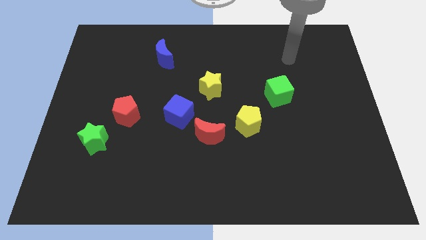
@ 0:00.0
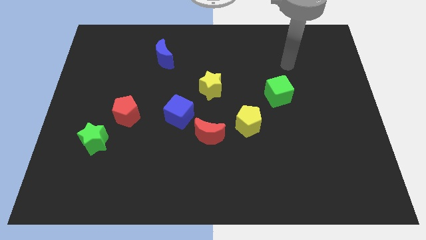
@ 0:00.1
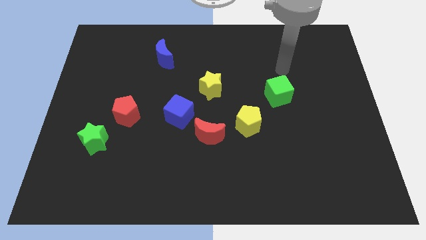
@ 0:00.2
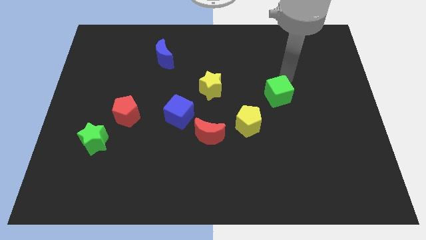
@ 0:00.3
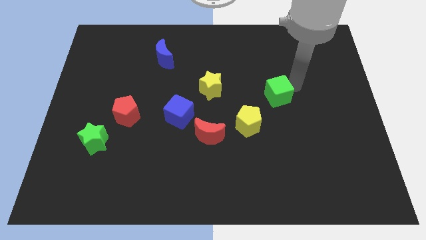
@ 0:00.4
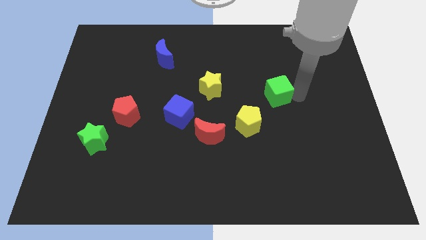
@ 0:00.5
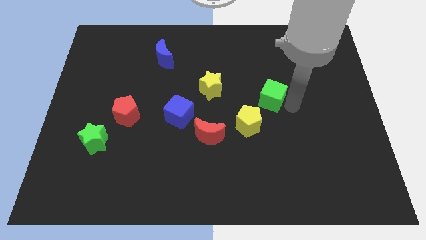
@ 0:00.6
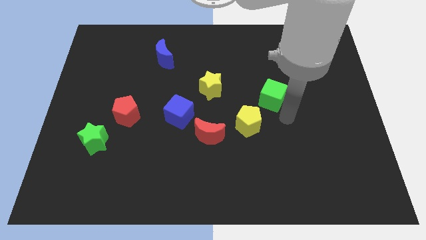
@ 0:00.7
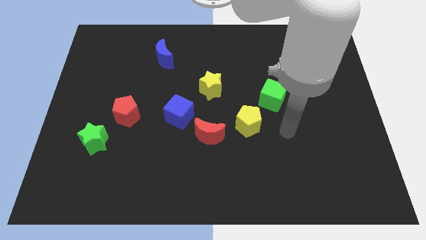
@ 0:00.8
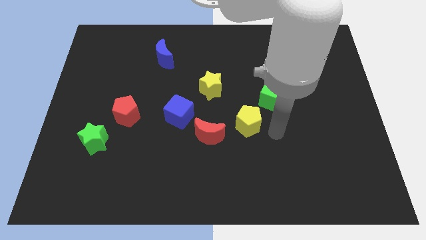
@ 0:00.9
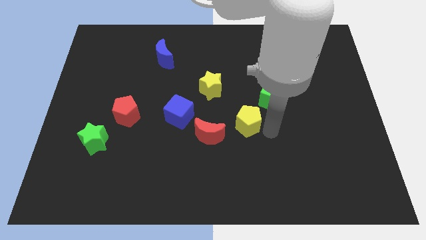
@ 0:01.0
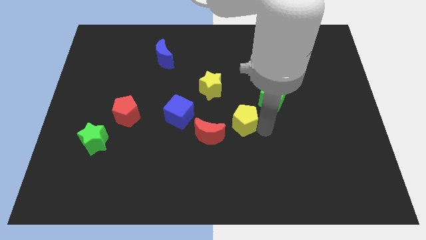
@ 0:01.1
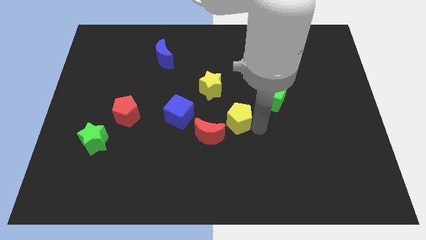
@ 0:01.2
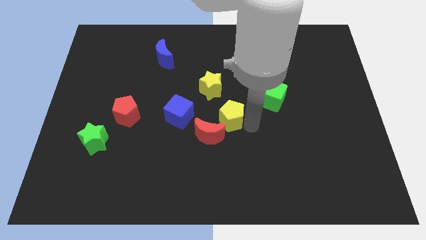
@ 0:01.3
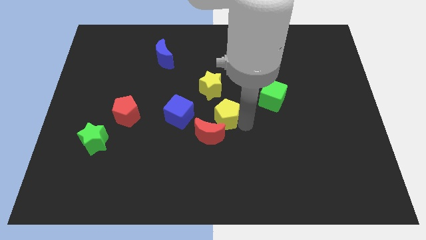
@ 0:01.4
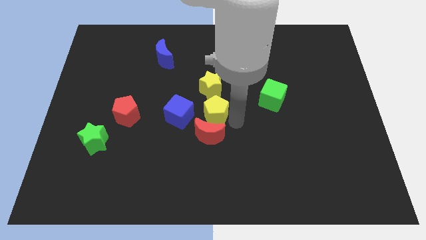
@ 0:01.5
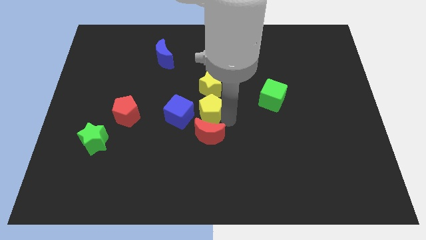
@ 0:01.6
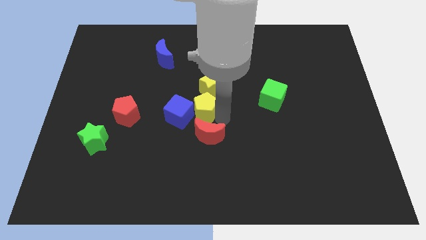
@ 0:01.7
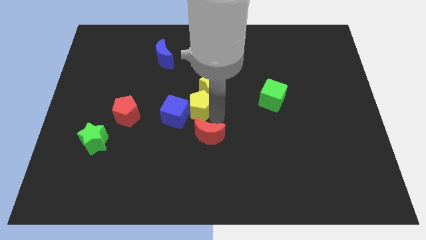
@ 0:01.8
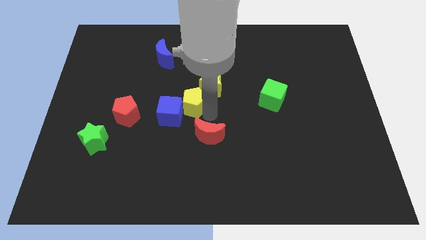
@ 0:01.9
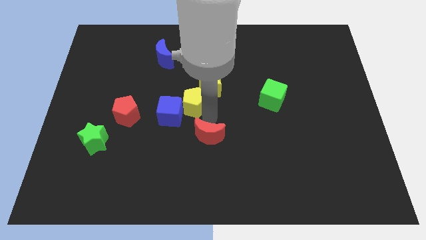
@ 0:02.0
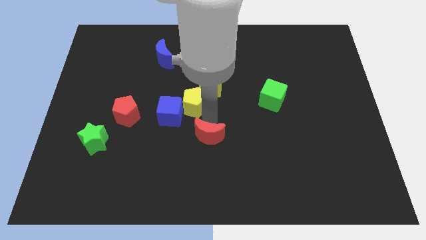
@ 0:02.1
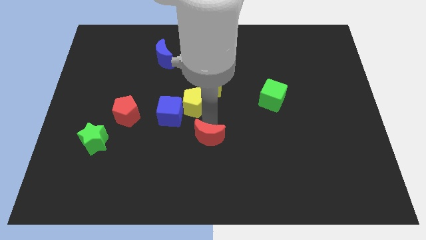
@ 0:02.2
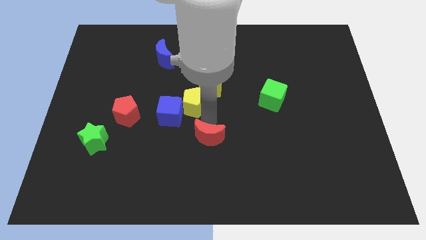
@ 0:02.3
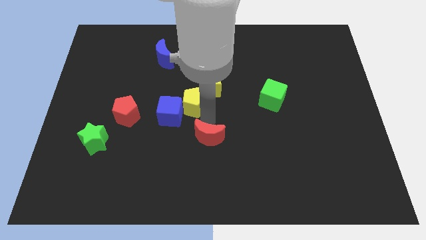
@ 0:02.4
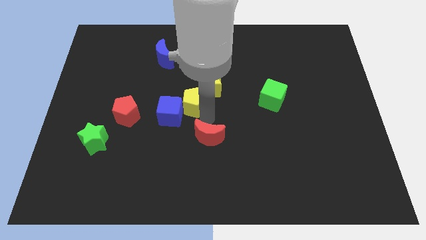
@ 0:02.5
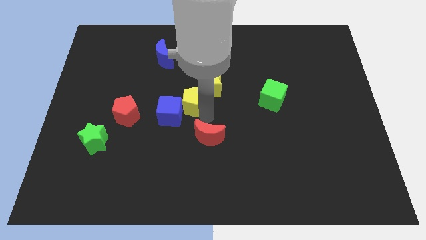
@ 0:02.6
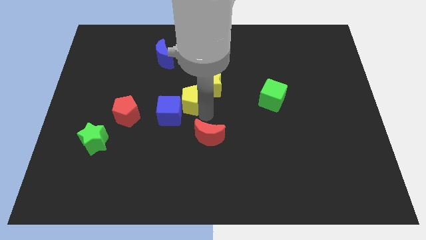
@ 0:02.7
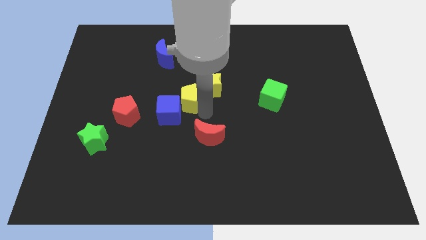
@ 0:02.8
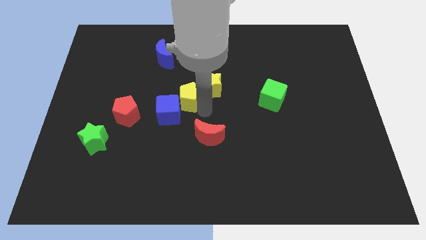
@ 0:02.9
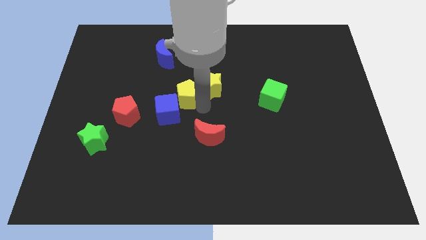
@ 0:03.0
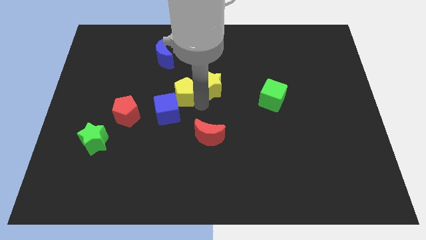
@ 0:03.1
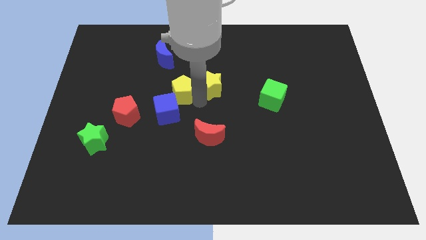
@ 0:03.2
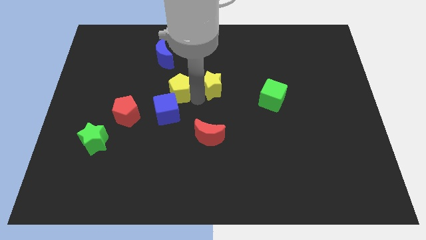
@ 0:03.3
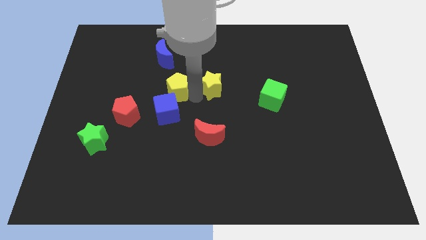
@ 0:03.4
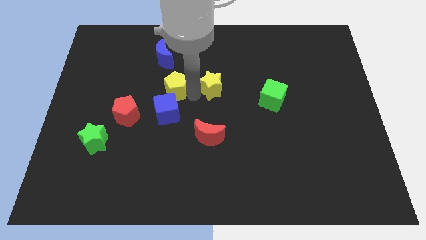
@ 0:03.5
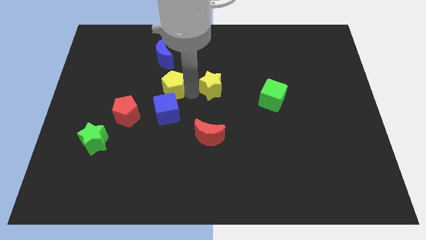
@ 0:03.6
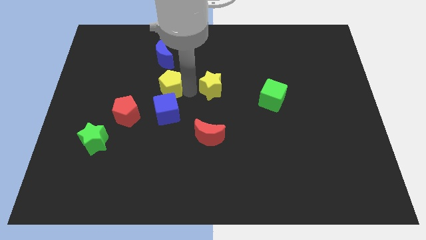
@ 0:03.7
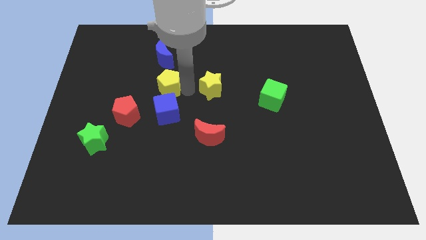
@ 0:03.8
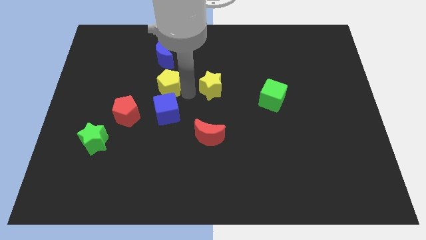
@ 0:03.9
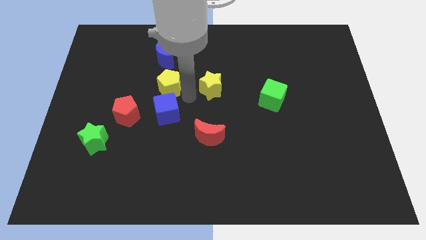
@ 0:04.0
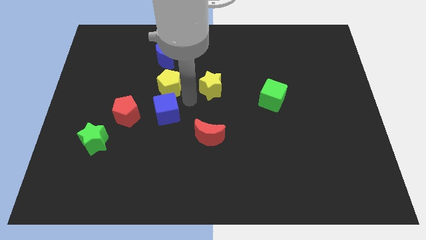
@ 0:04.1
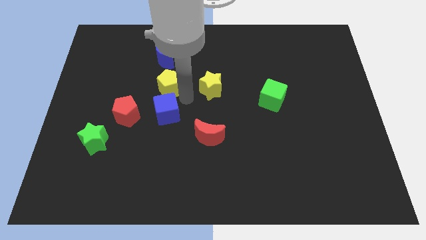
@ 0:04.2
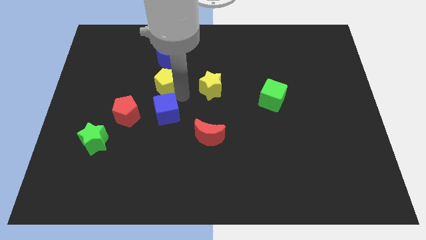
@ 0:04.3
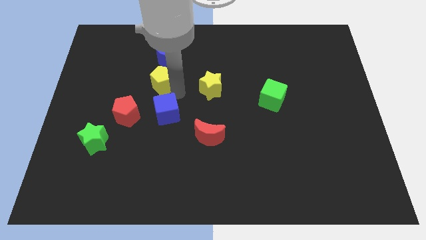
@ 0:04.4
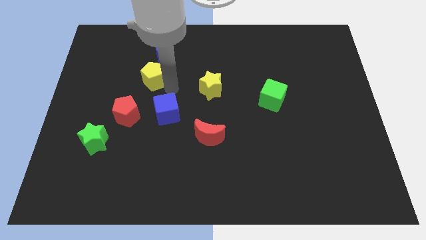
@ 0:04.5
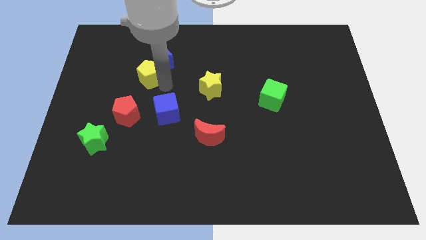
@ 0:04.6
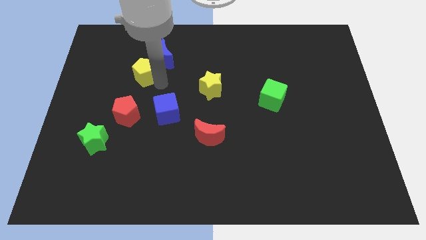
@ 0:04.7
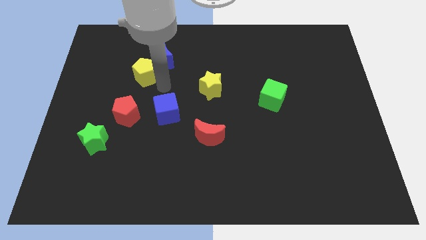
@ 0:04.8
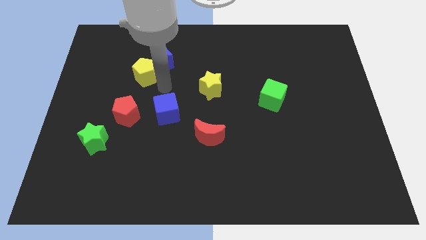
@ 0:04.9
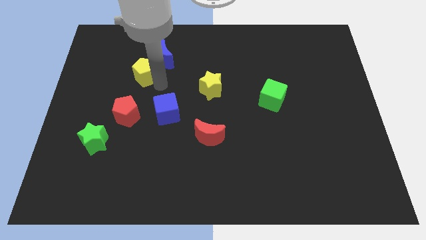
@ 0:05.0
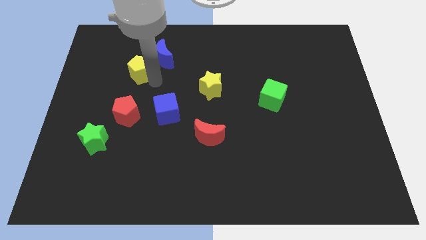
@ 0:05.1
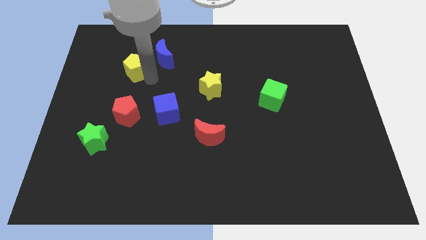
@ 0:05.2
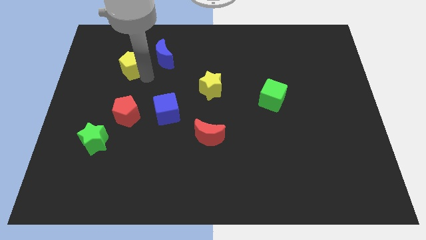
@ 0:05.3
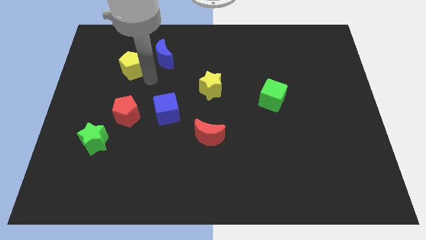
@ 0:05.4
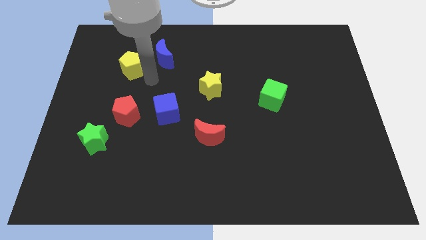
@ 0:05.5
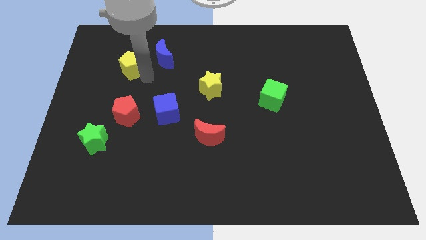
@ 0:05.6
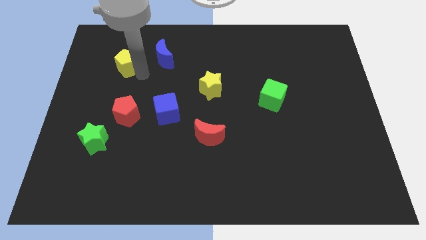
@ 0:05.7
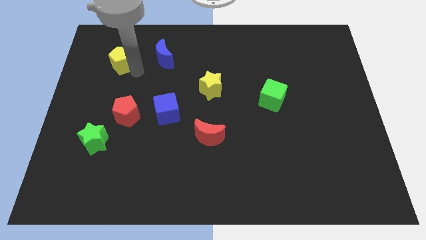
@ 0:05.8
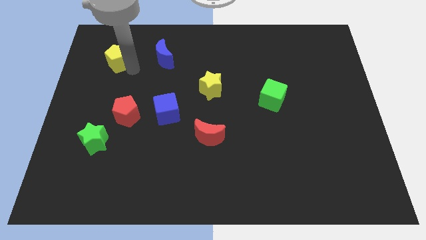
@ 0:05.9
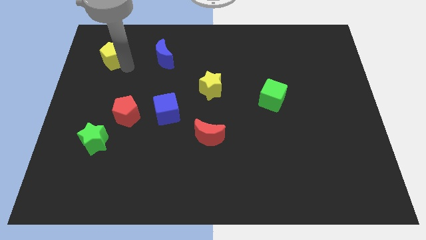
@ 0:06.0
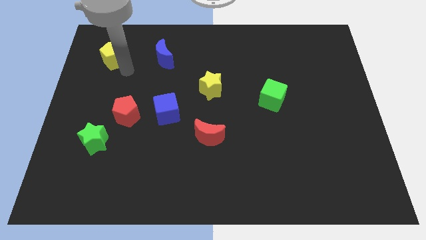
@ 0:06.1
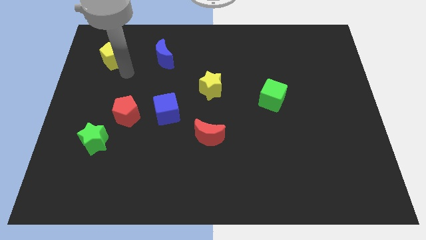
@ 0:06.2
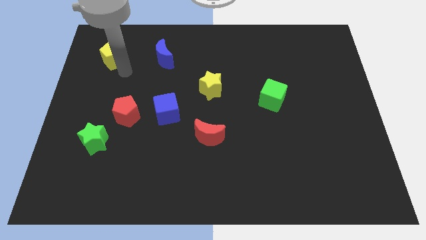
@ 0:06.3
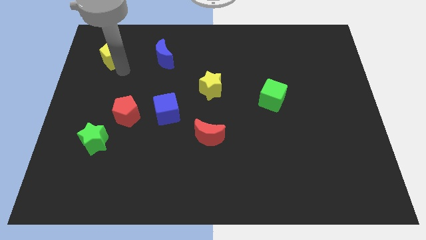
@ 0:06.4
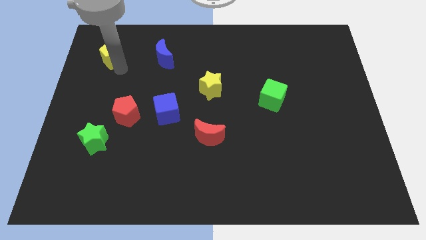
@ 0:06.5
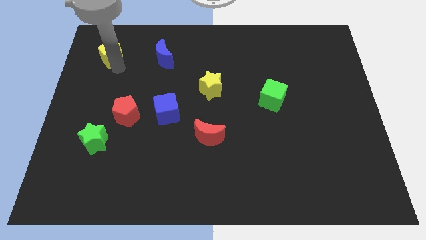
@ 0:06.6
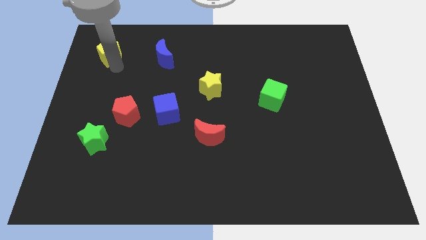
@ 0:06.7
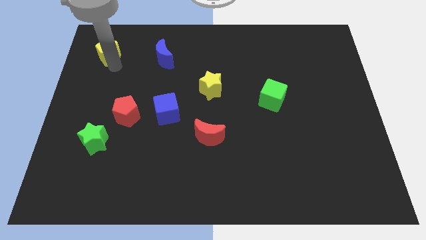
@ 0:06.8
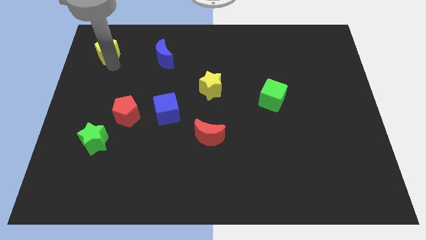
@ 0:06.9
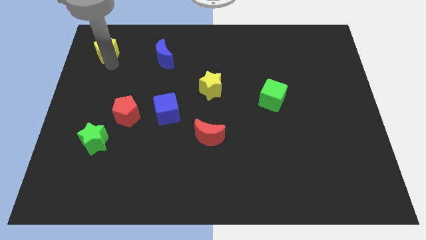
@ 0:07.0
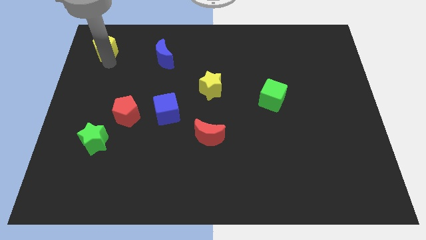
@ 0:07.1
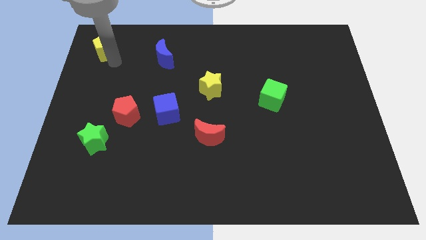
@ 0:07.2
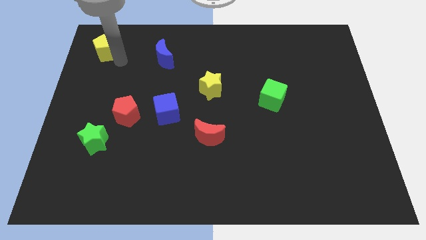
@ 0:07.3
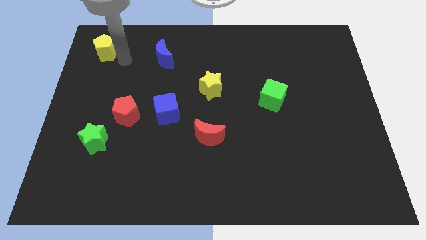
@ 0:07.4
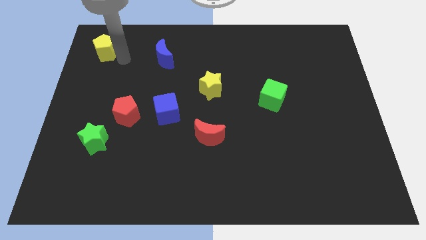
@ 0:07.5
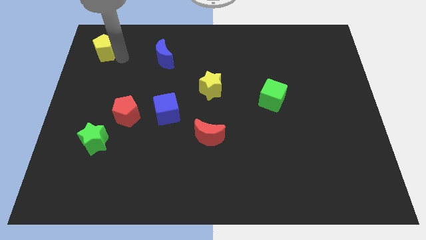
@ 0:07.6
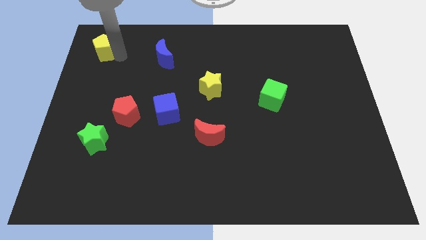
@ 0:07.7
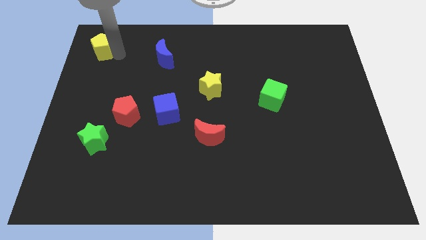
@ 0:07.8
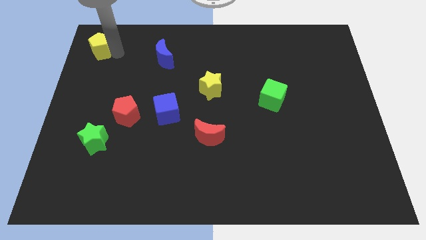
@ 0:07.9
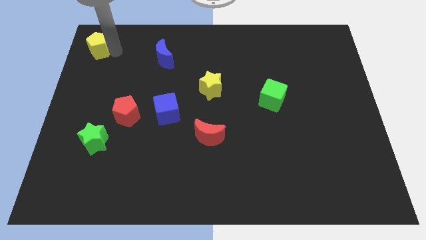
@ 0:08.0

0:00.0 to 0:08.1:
put the yellow pentagon to the top left of the board
